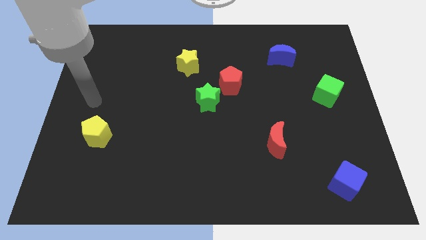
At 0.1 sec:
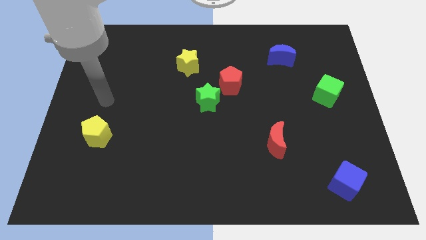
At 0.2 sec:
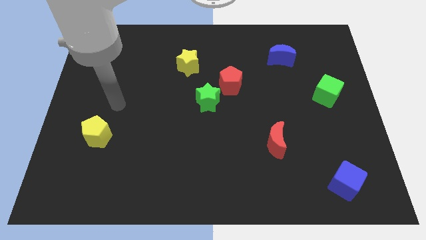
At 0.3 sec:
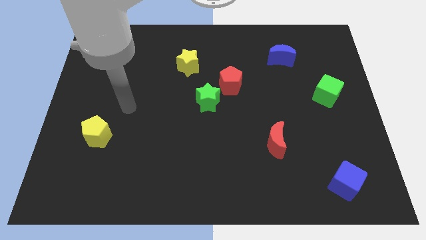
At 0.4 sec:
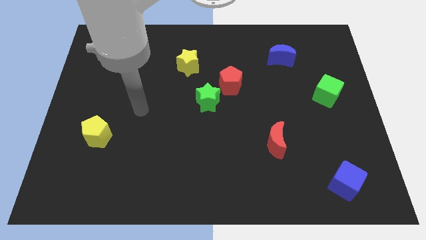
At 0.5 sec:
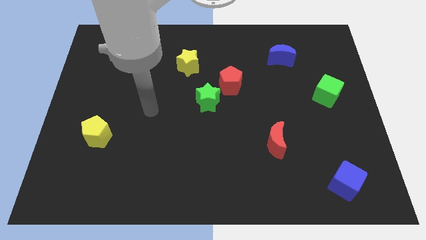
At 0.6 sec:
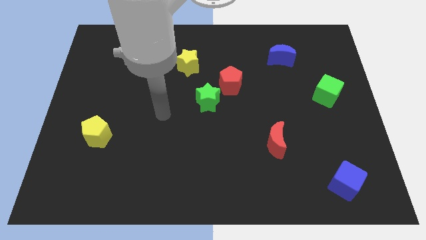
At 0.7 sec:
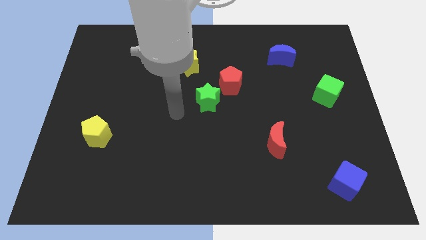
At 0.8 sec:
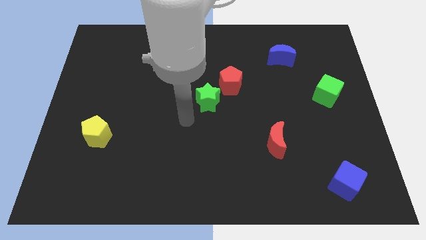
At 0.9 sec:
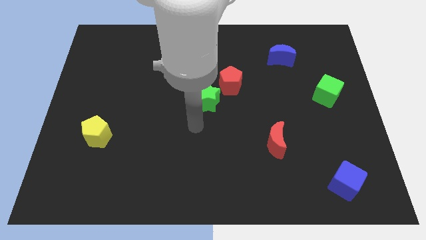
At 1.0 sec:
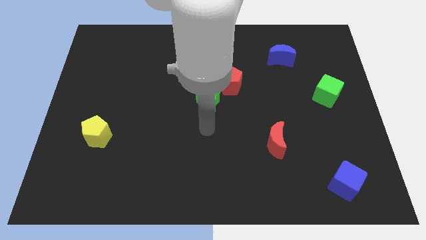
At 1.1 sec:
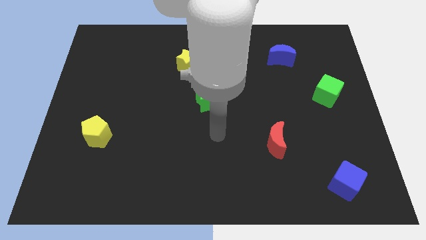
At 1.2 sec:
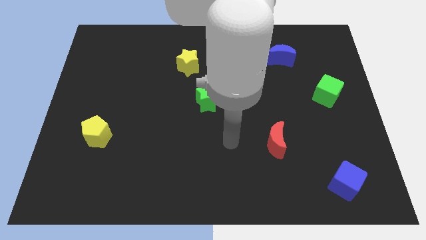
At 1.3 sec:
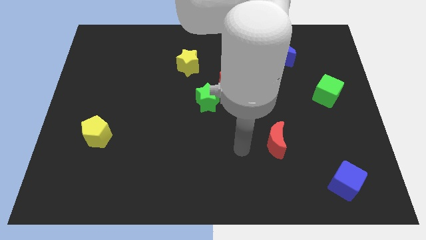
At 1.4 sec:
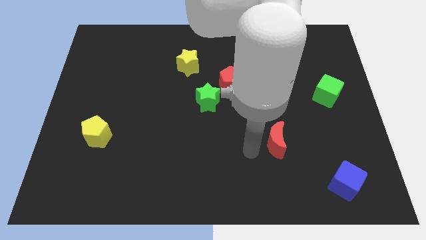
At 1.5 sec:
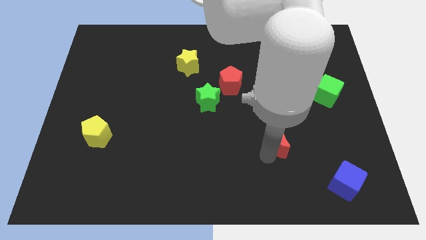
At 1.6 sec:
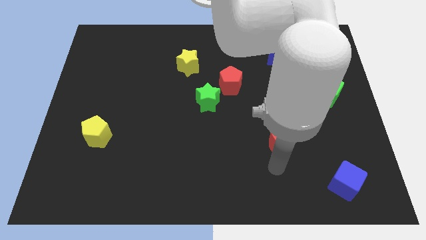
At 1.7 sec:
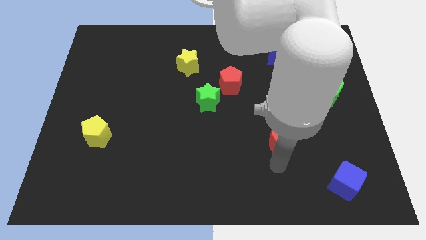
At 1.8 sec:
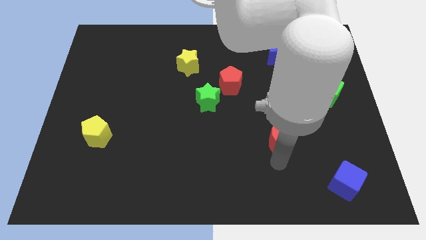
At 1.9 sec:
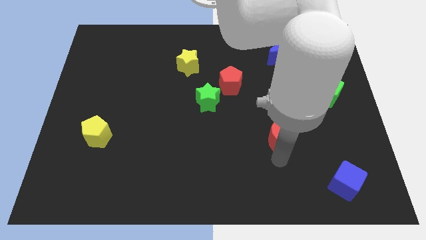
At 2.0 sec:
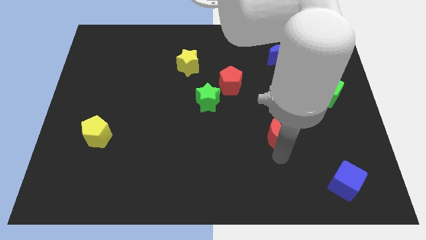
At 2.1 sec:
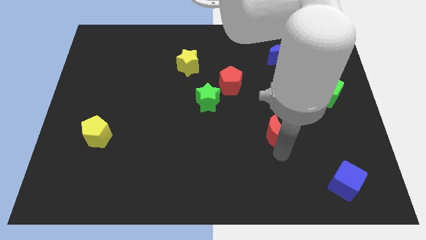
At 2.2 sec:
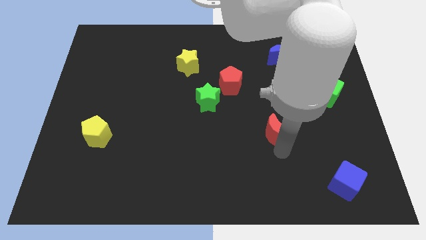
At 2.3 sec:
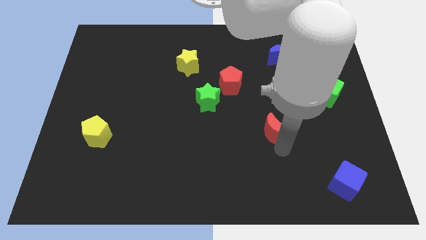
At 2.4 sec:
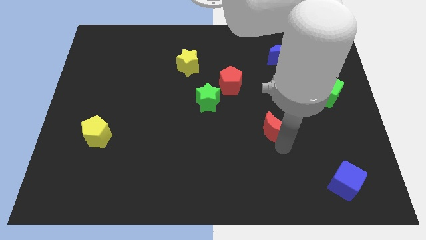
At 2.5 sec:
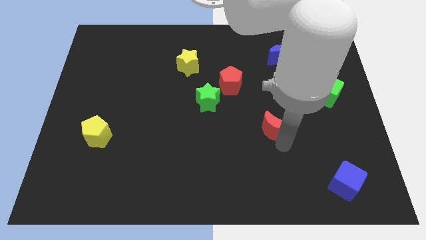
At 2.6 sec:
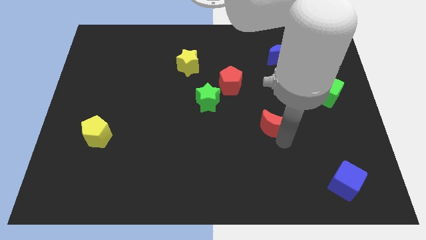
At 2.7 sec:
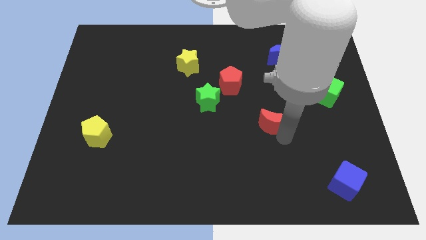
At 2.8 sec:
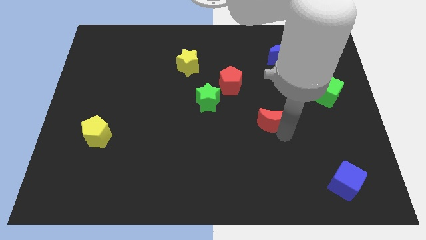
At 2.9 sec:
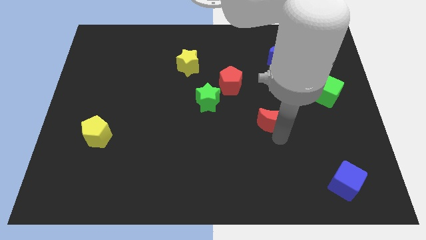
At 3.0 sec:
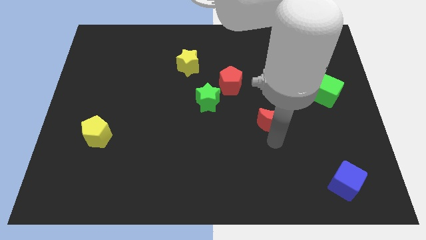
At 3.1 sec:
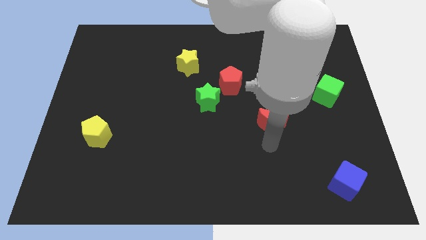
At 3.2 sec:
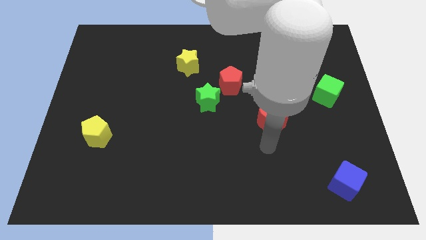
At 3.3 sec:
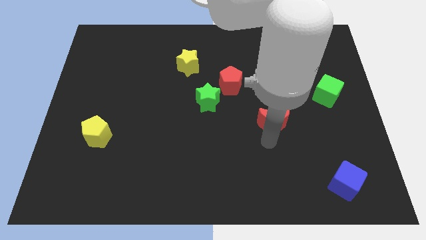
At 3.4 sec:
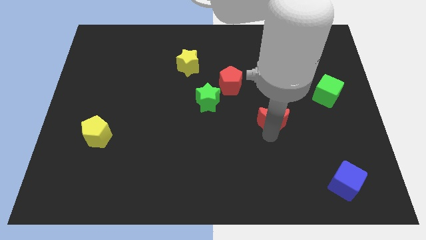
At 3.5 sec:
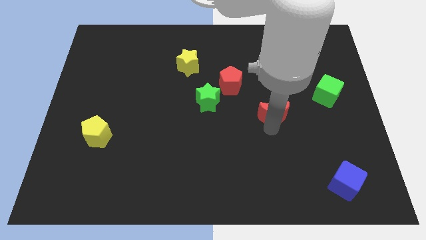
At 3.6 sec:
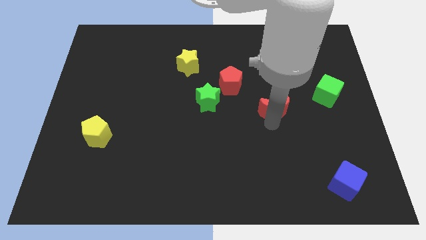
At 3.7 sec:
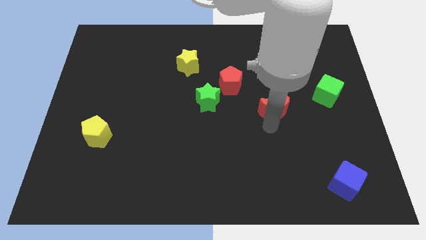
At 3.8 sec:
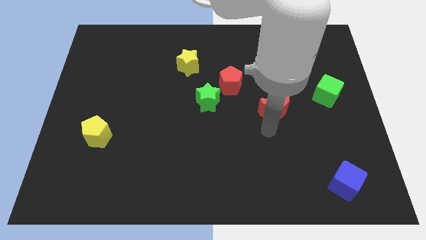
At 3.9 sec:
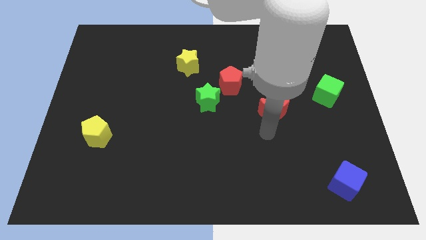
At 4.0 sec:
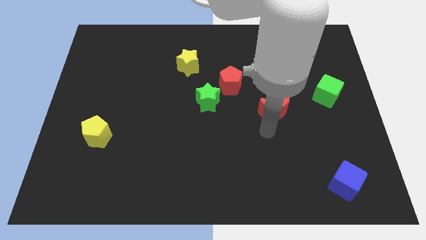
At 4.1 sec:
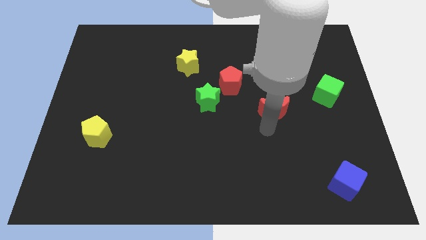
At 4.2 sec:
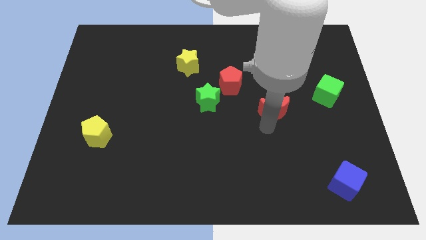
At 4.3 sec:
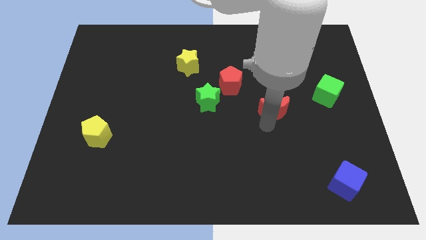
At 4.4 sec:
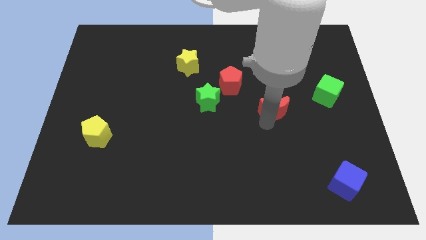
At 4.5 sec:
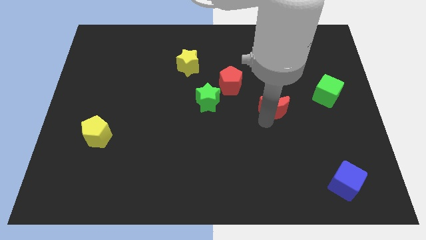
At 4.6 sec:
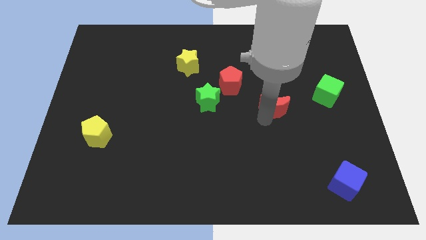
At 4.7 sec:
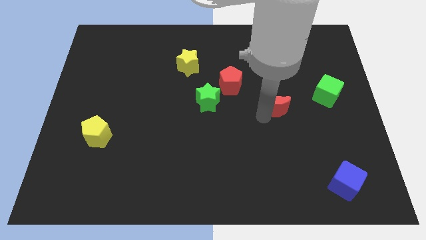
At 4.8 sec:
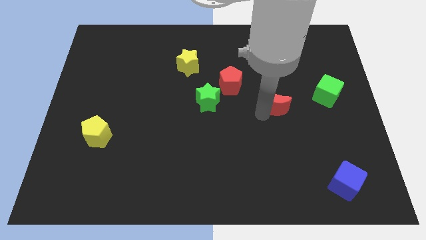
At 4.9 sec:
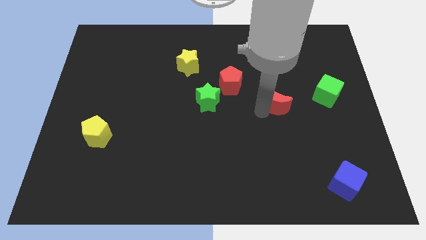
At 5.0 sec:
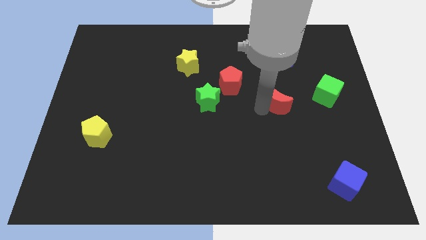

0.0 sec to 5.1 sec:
slide the red moon below the blue moon

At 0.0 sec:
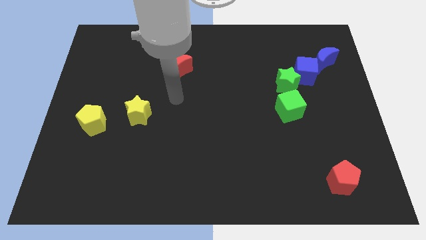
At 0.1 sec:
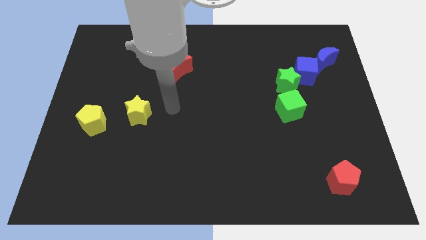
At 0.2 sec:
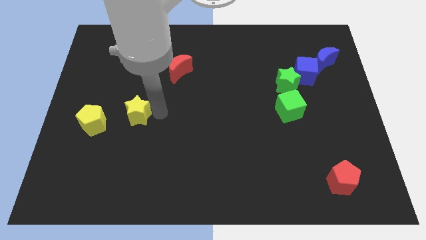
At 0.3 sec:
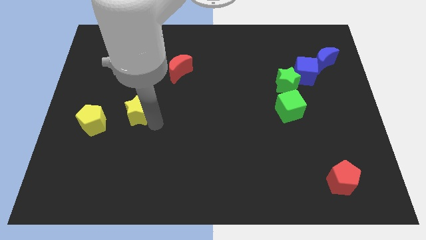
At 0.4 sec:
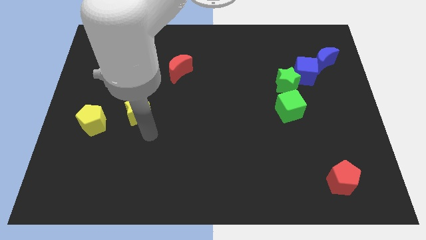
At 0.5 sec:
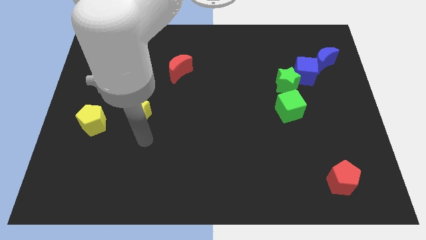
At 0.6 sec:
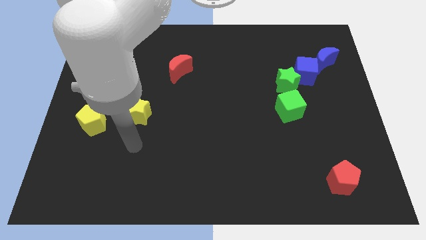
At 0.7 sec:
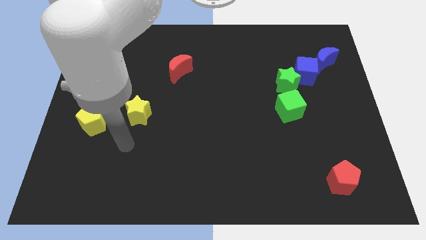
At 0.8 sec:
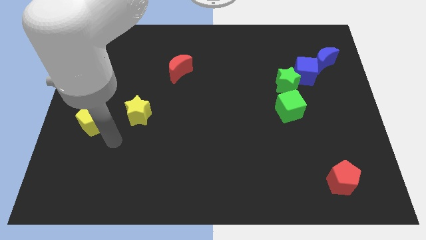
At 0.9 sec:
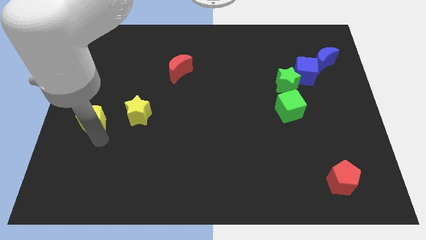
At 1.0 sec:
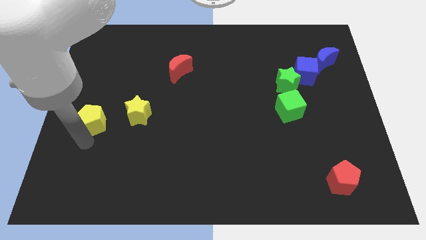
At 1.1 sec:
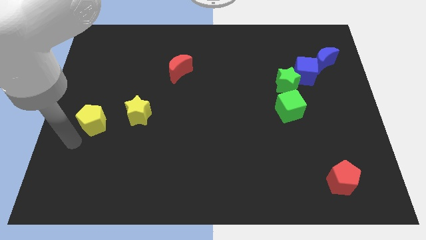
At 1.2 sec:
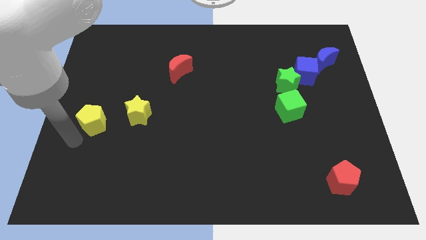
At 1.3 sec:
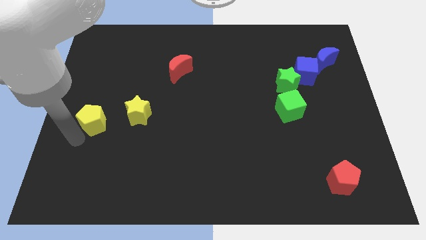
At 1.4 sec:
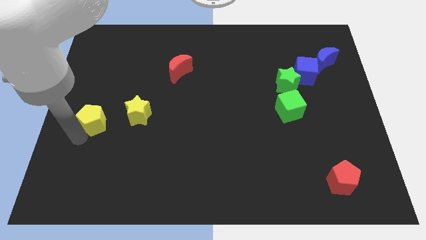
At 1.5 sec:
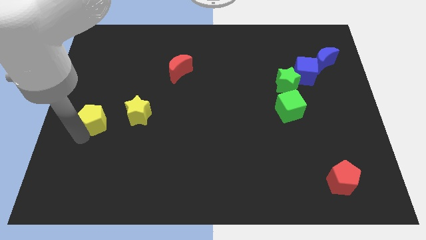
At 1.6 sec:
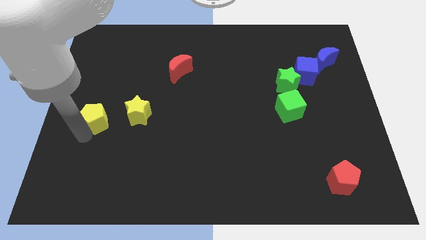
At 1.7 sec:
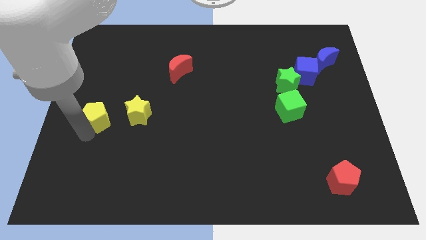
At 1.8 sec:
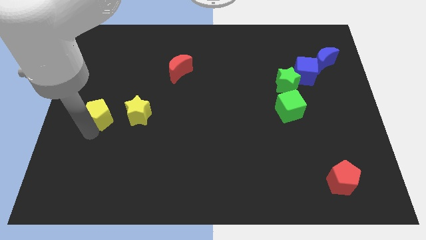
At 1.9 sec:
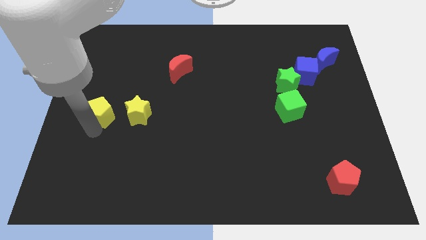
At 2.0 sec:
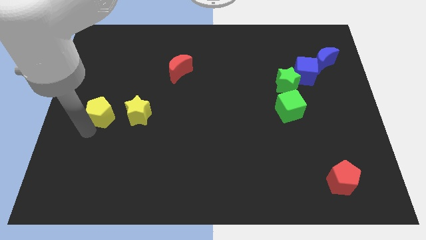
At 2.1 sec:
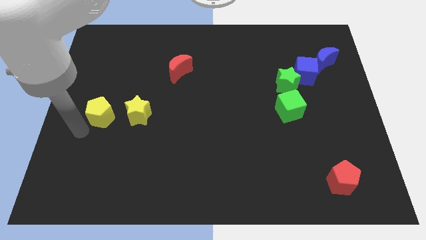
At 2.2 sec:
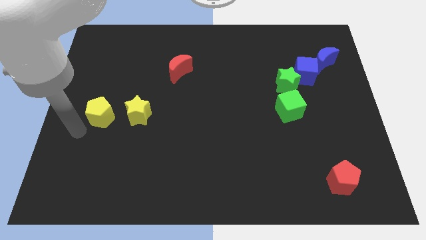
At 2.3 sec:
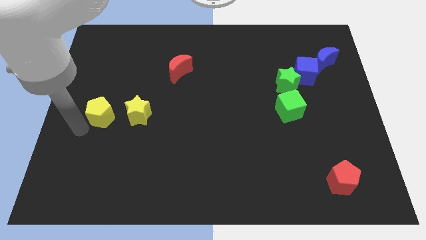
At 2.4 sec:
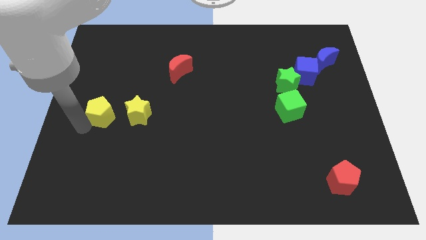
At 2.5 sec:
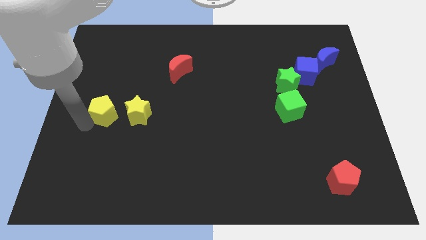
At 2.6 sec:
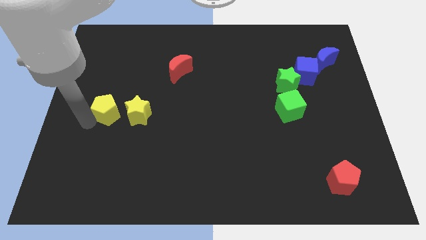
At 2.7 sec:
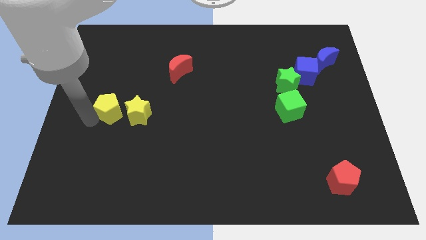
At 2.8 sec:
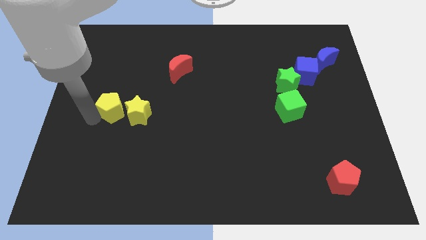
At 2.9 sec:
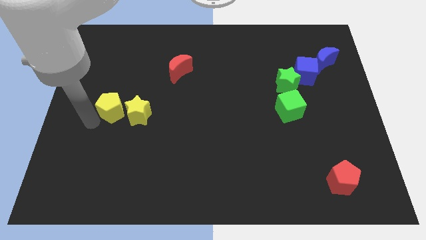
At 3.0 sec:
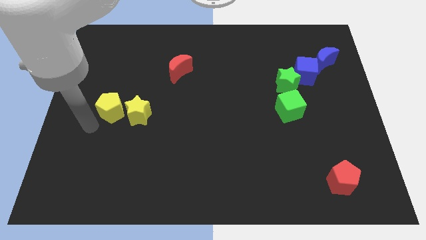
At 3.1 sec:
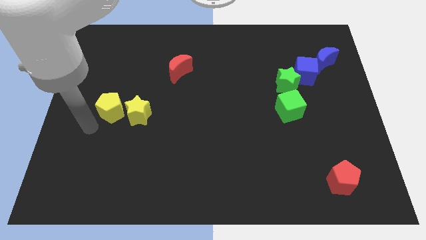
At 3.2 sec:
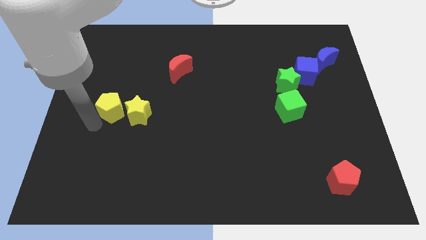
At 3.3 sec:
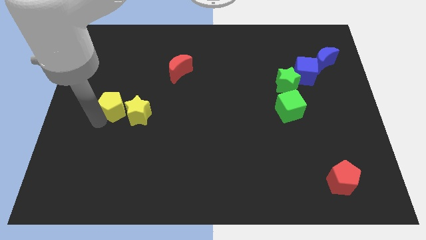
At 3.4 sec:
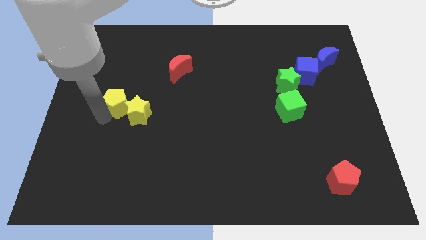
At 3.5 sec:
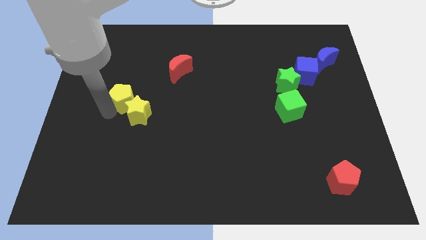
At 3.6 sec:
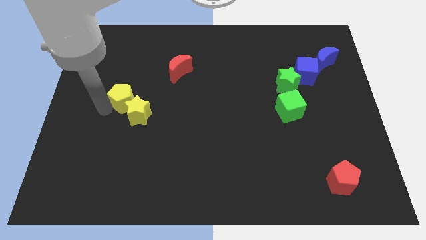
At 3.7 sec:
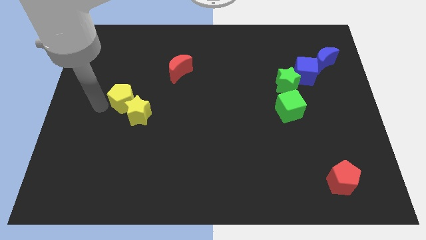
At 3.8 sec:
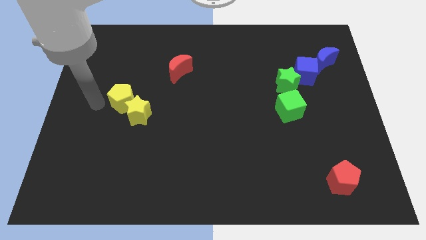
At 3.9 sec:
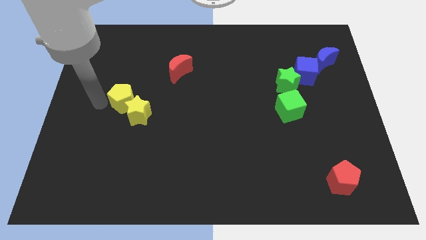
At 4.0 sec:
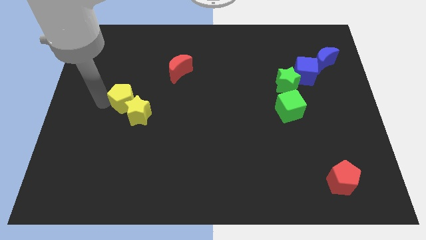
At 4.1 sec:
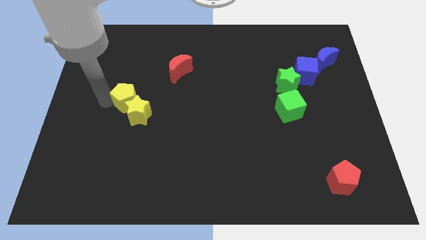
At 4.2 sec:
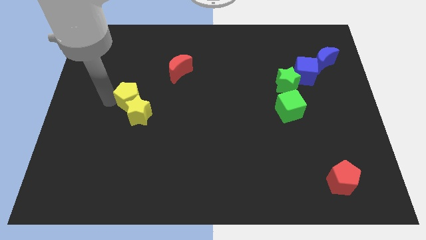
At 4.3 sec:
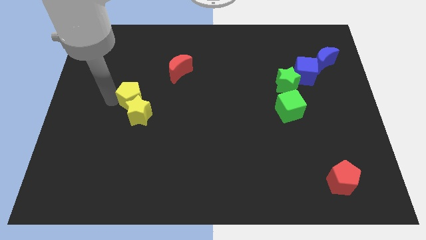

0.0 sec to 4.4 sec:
move the yellow pentagon to the top right side of the yellow star
